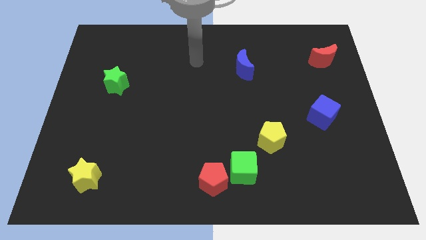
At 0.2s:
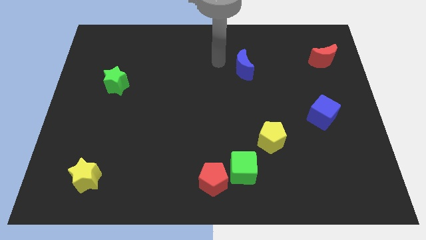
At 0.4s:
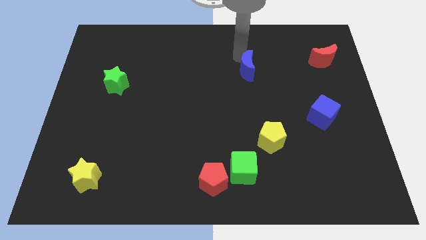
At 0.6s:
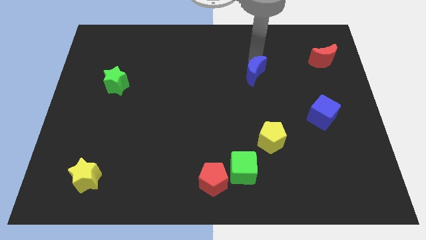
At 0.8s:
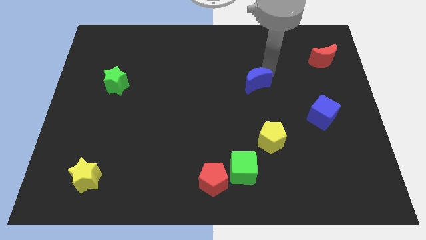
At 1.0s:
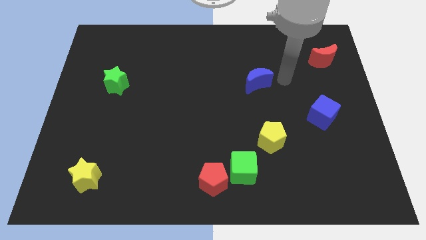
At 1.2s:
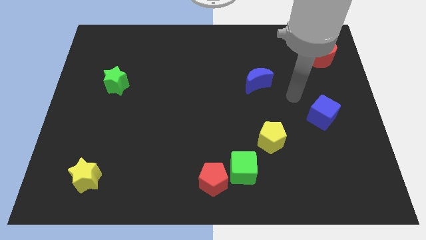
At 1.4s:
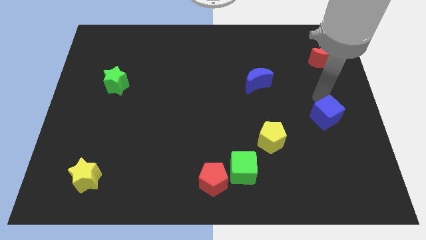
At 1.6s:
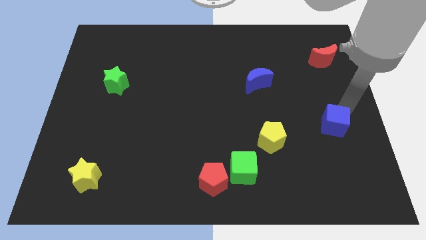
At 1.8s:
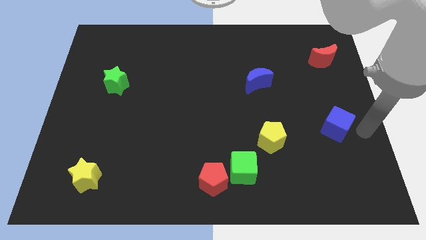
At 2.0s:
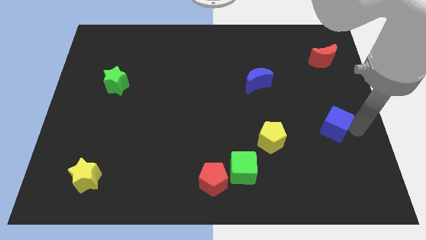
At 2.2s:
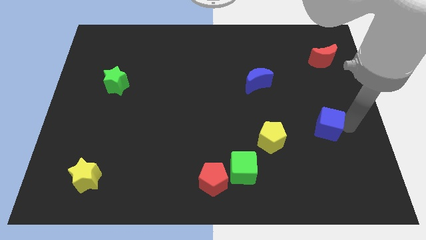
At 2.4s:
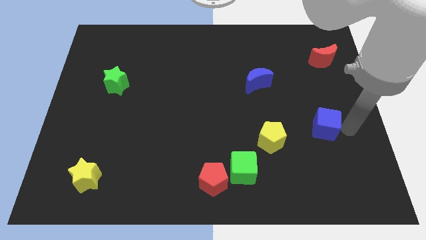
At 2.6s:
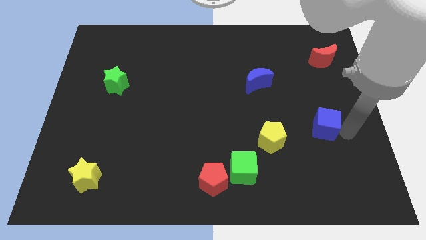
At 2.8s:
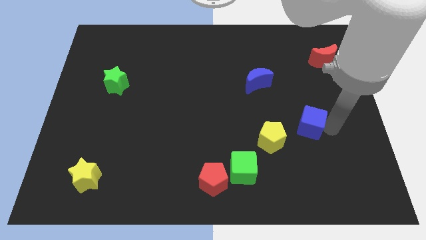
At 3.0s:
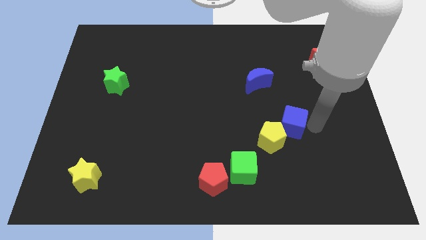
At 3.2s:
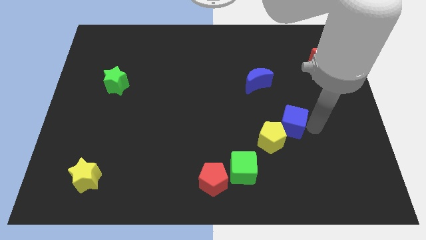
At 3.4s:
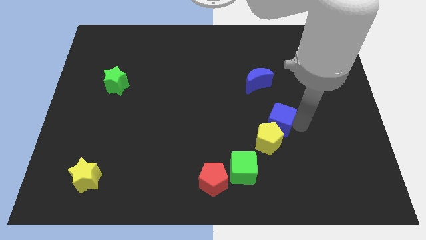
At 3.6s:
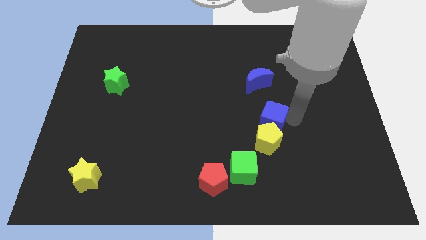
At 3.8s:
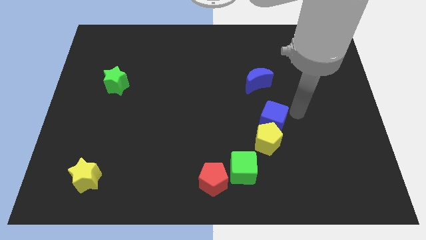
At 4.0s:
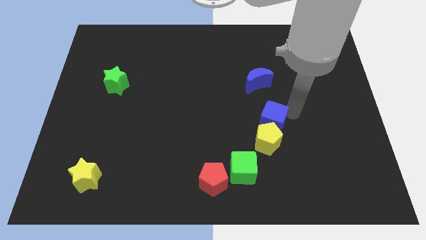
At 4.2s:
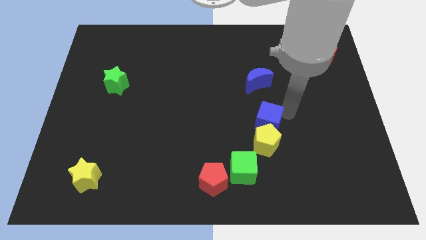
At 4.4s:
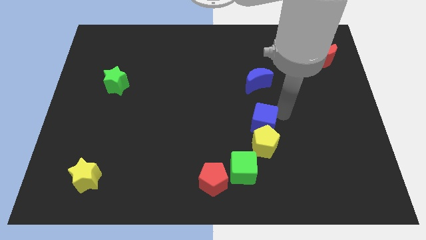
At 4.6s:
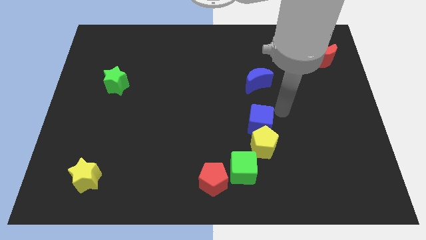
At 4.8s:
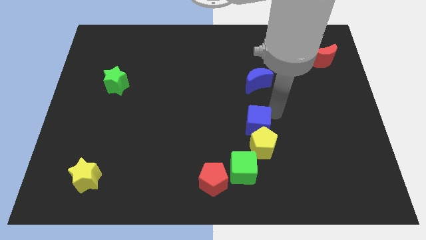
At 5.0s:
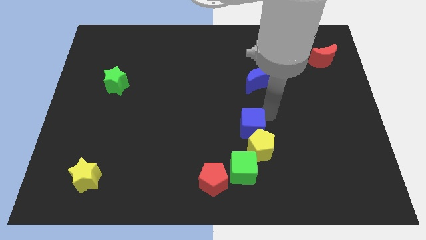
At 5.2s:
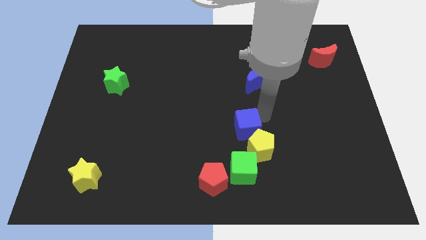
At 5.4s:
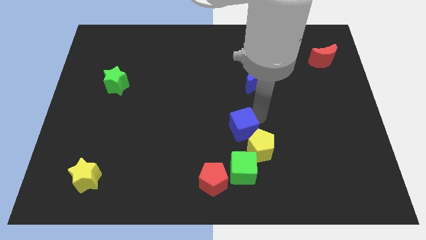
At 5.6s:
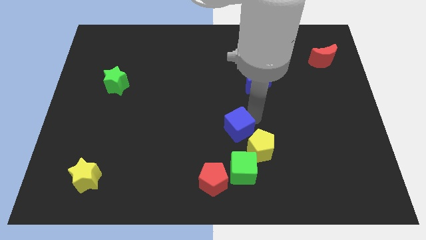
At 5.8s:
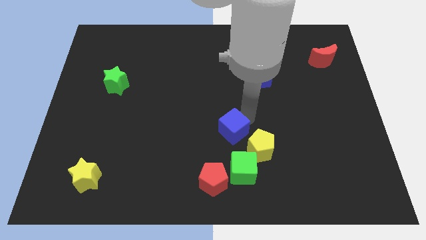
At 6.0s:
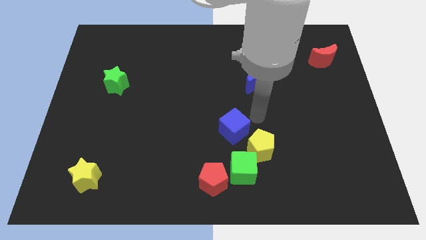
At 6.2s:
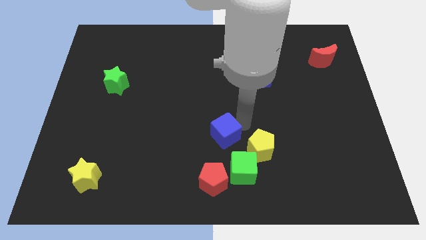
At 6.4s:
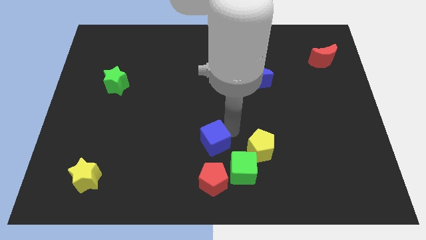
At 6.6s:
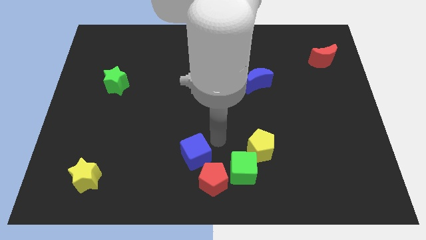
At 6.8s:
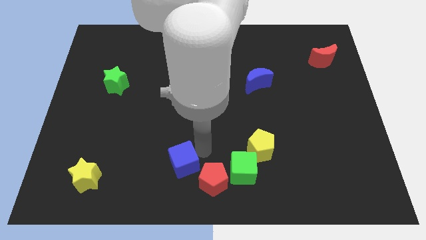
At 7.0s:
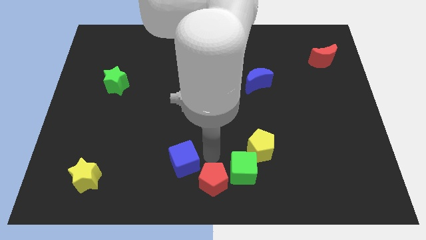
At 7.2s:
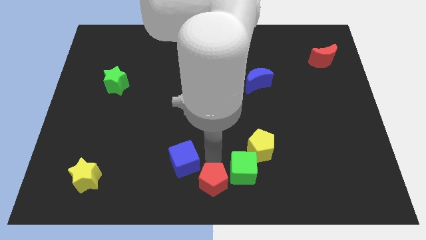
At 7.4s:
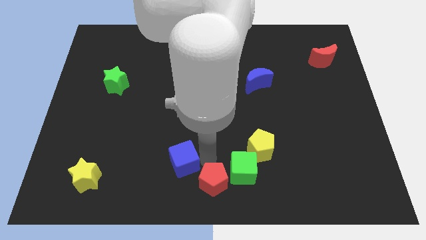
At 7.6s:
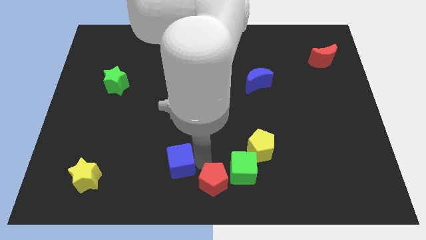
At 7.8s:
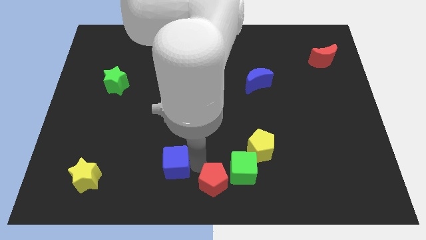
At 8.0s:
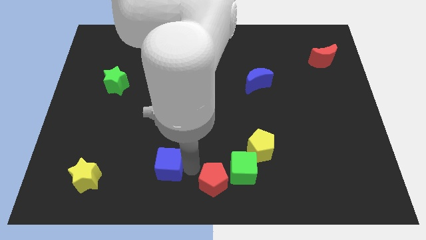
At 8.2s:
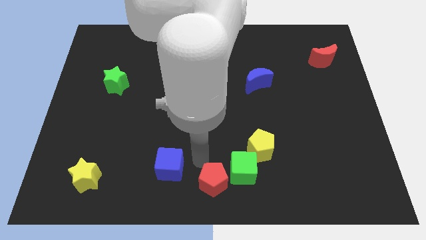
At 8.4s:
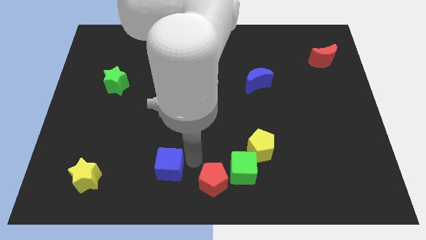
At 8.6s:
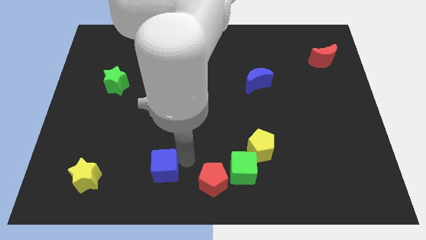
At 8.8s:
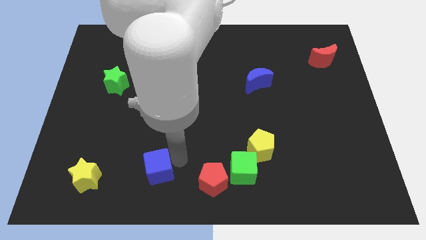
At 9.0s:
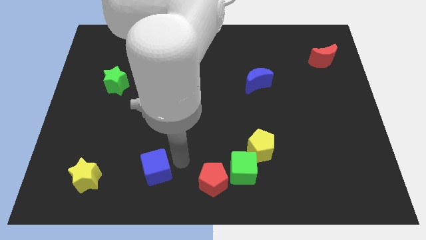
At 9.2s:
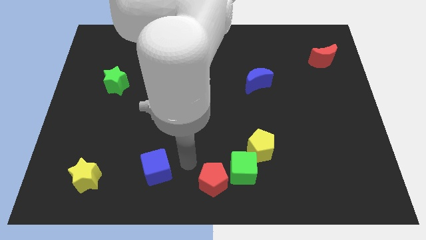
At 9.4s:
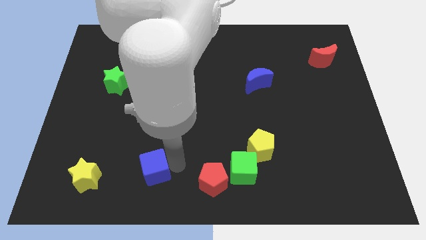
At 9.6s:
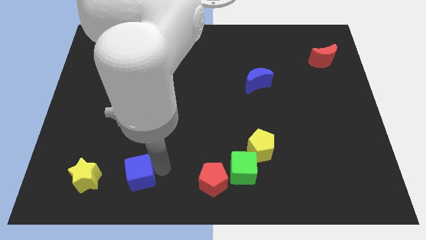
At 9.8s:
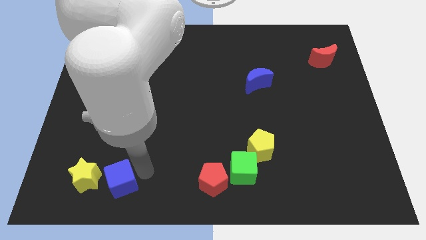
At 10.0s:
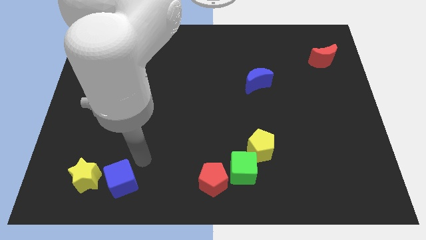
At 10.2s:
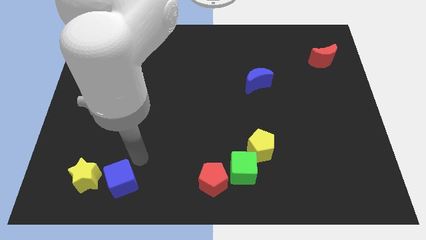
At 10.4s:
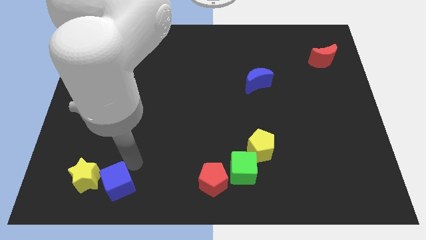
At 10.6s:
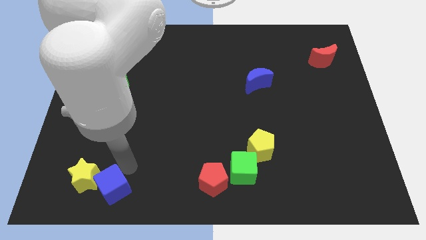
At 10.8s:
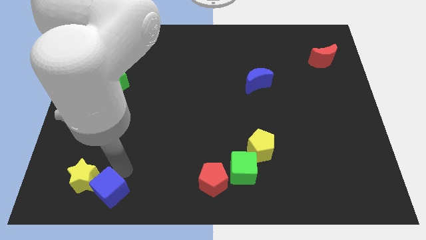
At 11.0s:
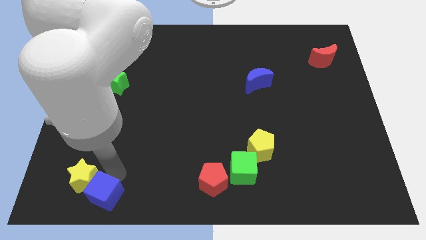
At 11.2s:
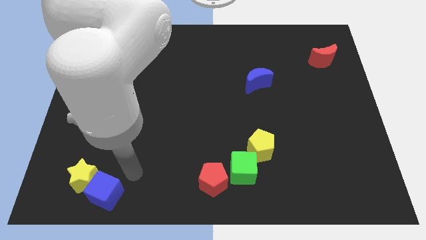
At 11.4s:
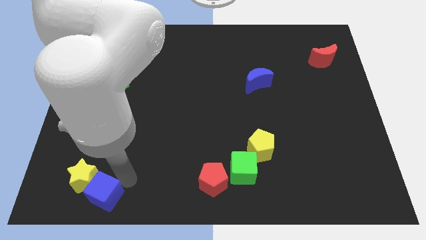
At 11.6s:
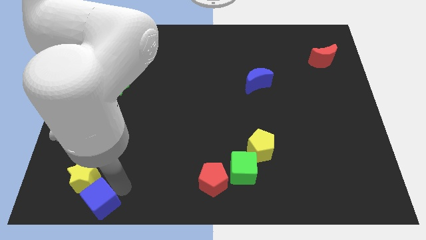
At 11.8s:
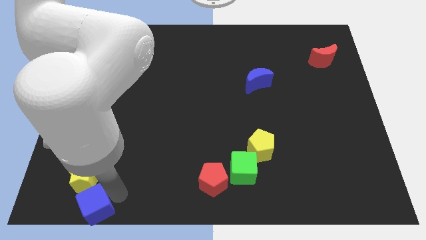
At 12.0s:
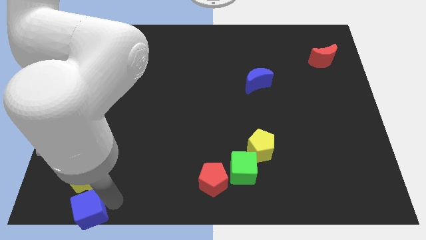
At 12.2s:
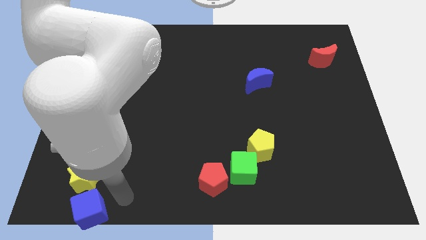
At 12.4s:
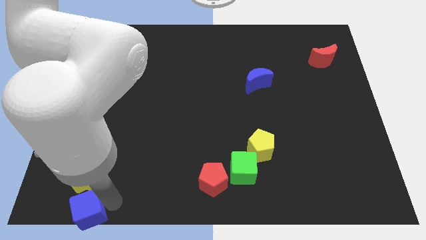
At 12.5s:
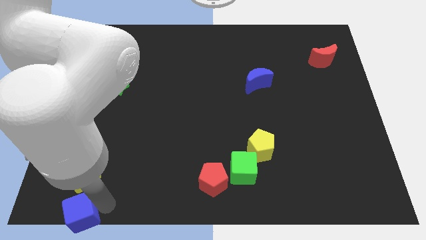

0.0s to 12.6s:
slide the blue cube to the bottom left of the board

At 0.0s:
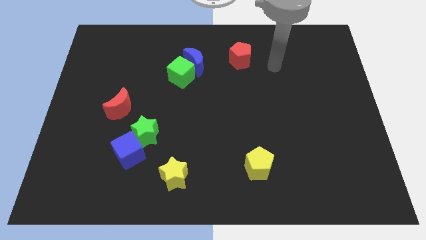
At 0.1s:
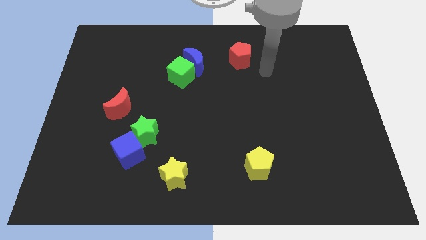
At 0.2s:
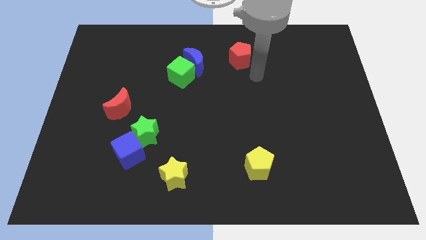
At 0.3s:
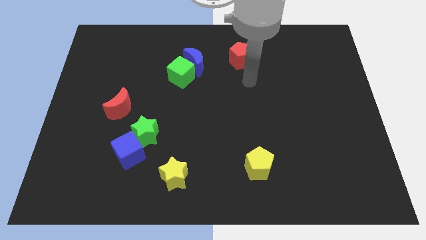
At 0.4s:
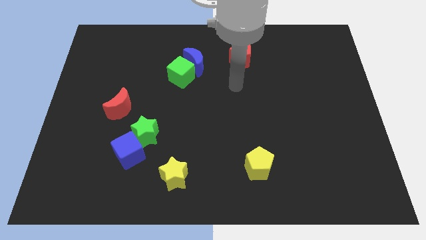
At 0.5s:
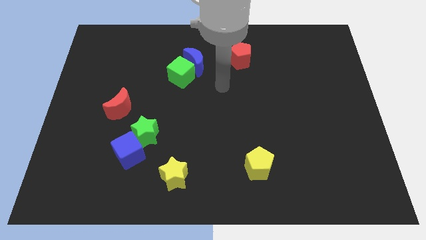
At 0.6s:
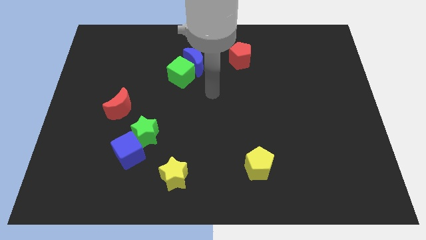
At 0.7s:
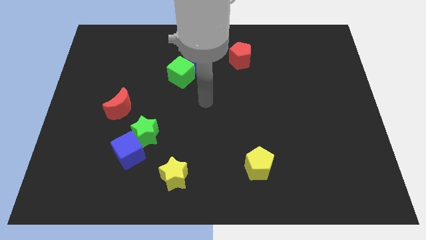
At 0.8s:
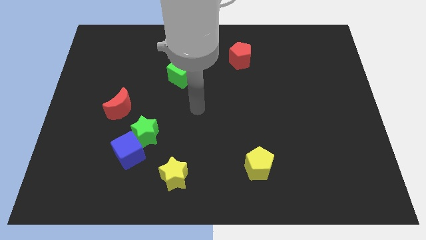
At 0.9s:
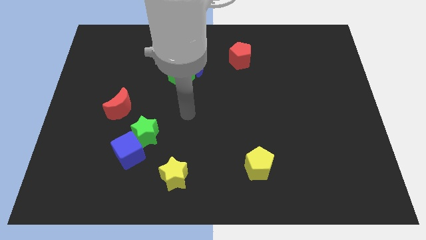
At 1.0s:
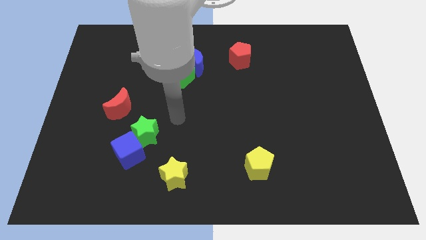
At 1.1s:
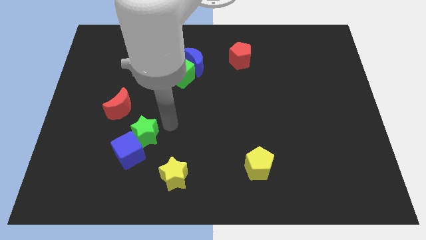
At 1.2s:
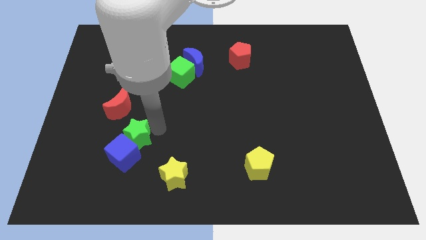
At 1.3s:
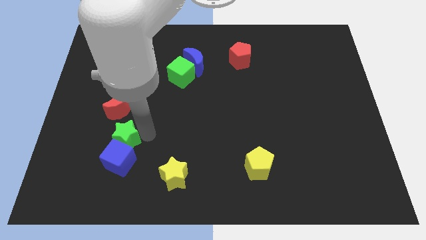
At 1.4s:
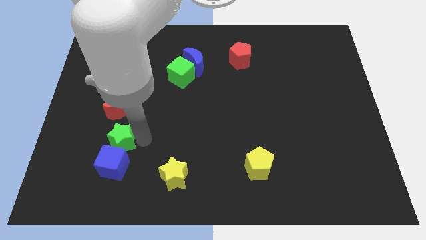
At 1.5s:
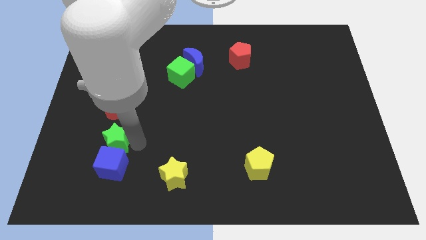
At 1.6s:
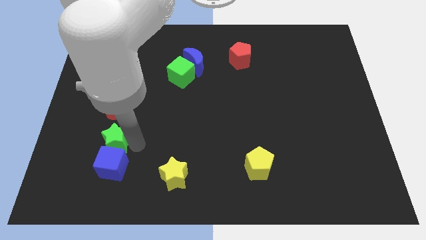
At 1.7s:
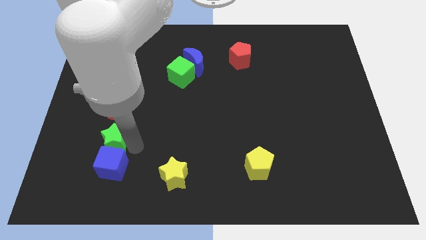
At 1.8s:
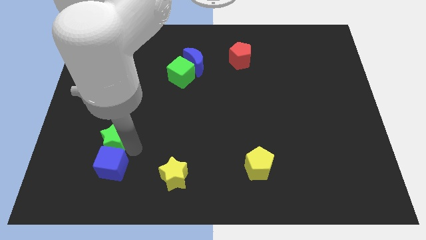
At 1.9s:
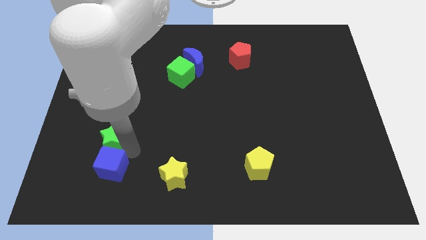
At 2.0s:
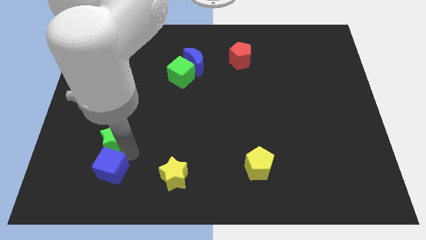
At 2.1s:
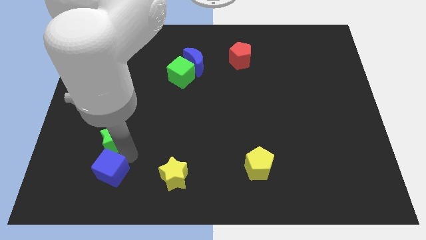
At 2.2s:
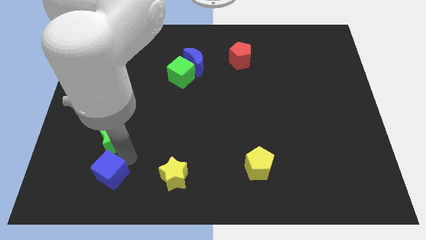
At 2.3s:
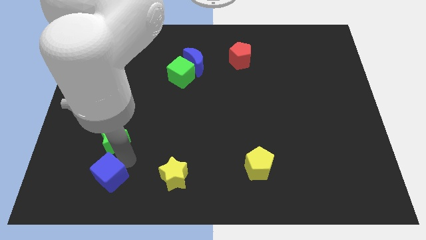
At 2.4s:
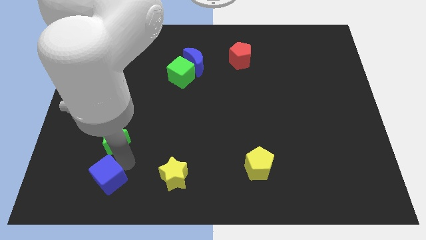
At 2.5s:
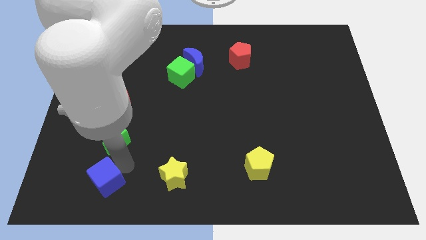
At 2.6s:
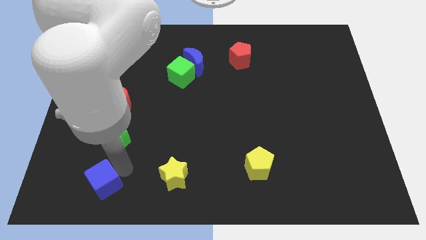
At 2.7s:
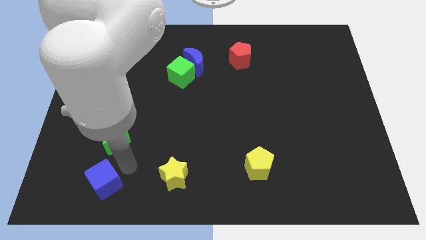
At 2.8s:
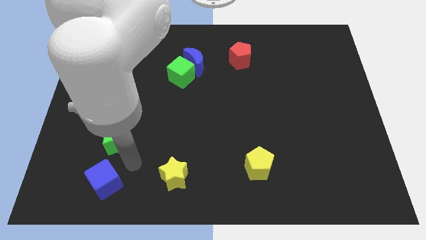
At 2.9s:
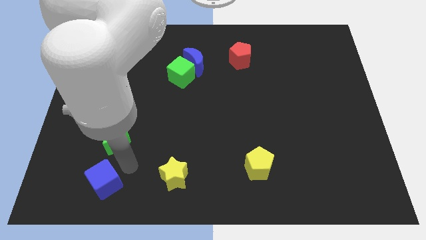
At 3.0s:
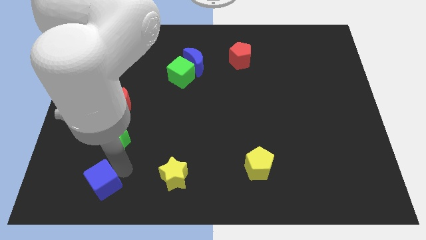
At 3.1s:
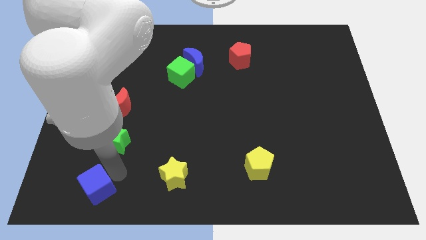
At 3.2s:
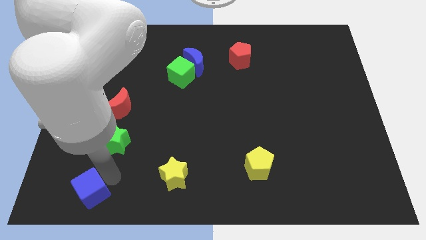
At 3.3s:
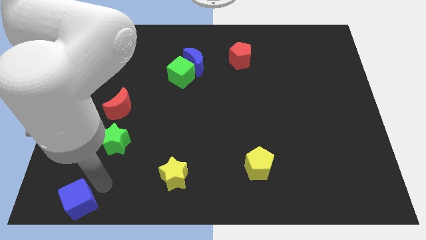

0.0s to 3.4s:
slide the blue cube to the lower left corner
